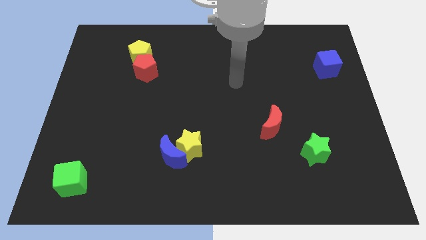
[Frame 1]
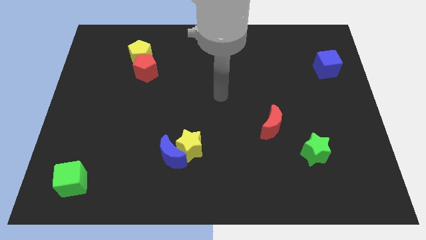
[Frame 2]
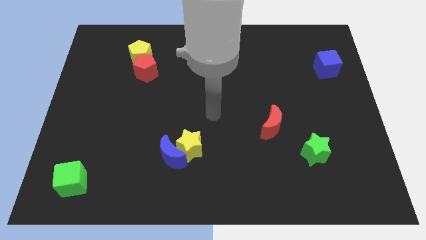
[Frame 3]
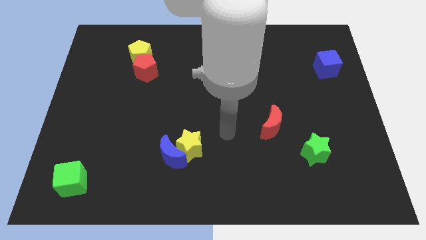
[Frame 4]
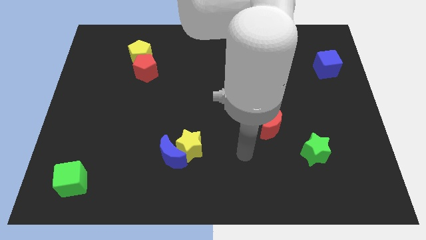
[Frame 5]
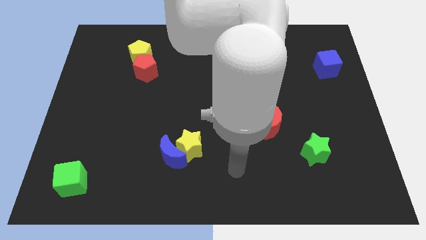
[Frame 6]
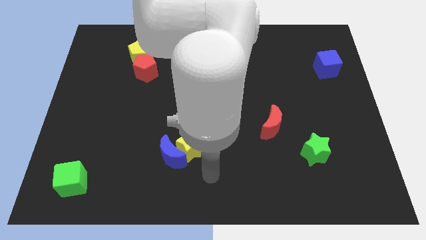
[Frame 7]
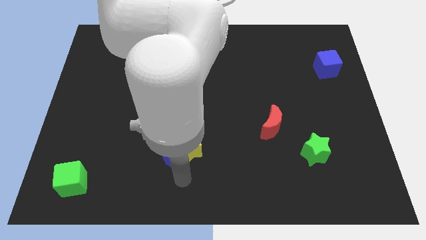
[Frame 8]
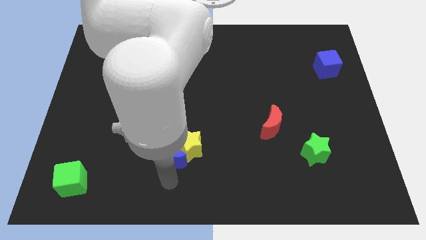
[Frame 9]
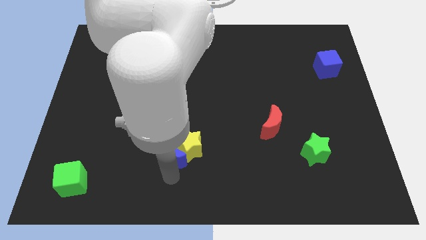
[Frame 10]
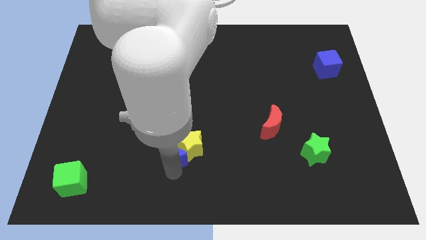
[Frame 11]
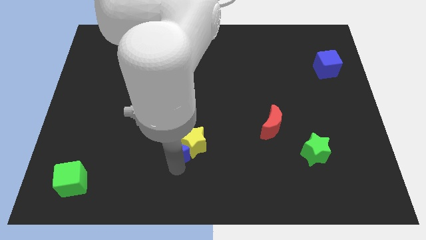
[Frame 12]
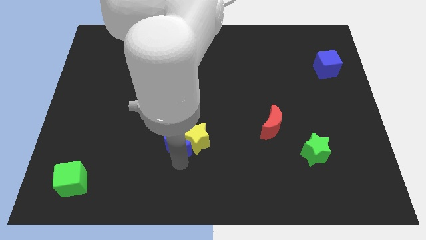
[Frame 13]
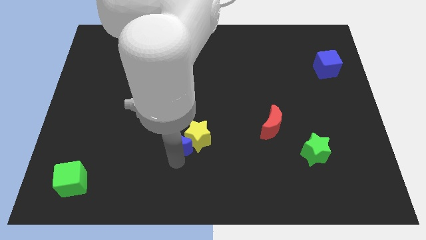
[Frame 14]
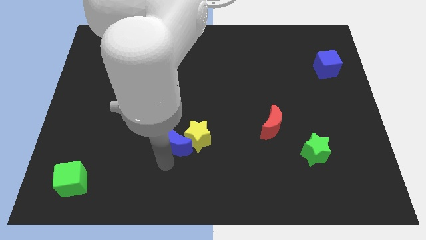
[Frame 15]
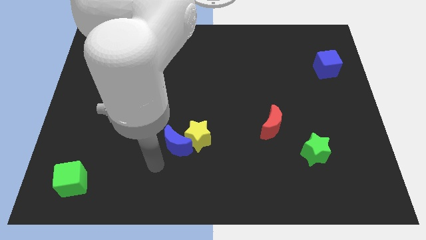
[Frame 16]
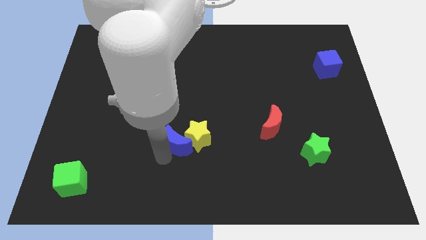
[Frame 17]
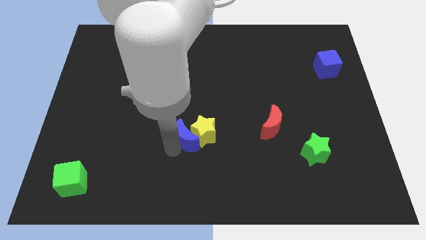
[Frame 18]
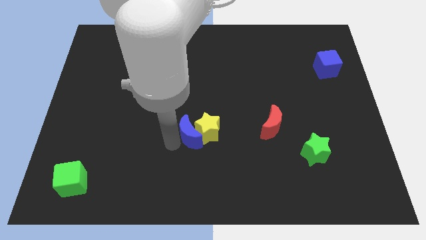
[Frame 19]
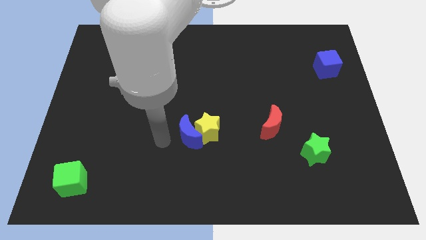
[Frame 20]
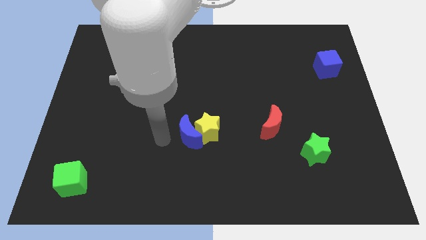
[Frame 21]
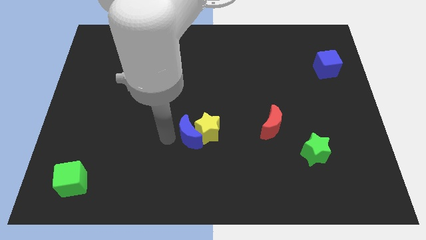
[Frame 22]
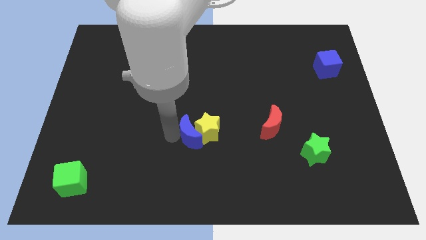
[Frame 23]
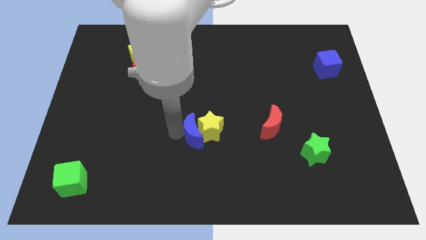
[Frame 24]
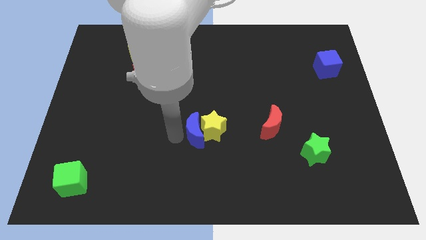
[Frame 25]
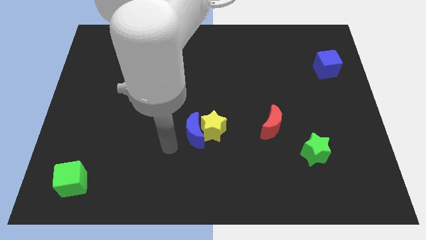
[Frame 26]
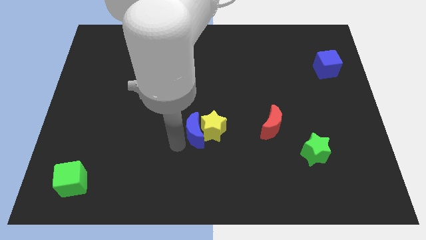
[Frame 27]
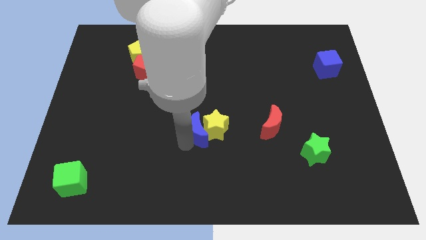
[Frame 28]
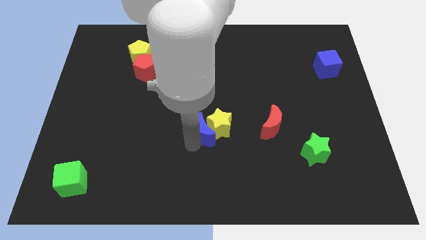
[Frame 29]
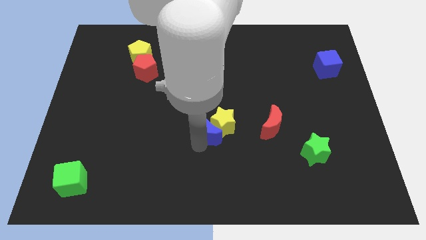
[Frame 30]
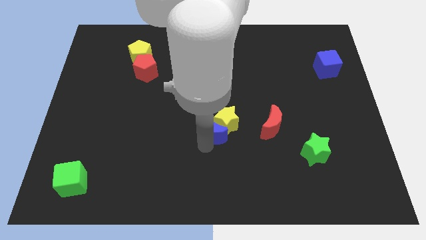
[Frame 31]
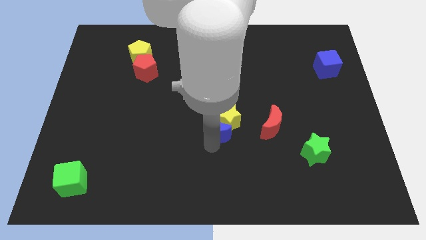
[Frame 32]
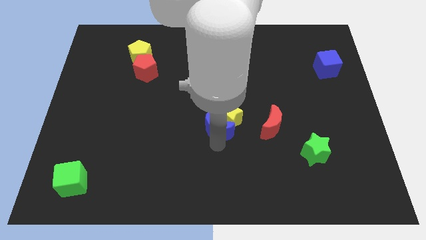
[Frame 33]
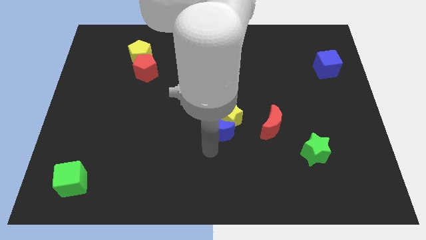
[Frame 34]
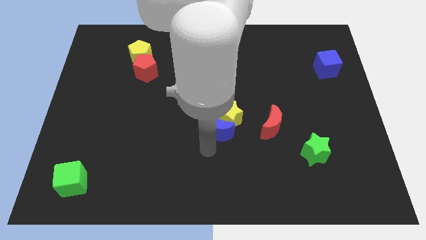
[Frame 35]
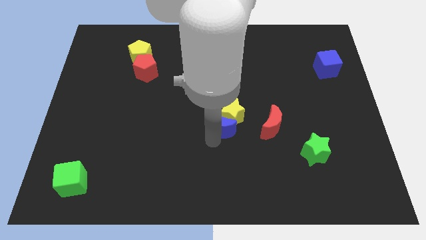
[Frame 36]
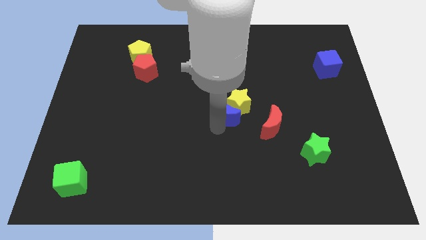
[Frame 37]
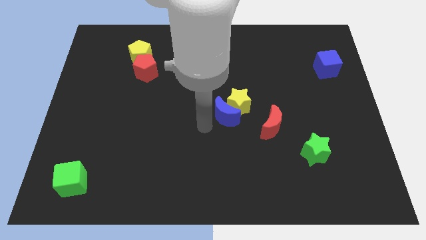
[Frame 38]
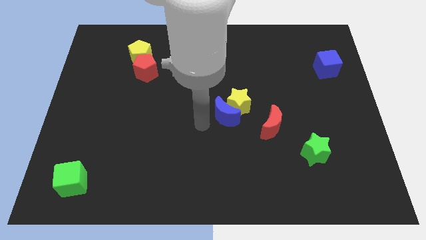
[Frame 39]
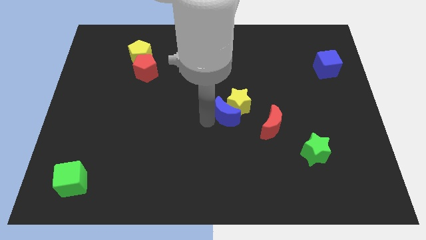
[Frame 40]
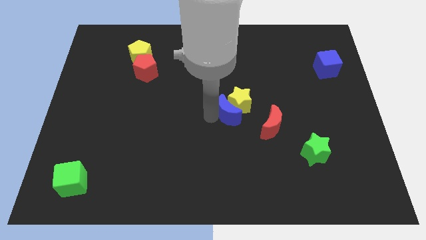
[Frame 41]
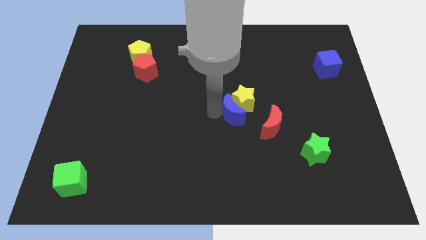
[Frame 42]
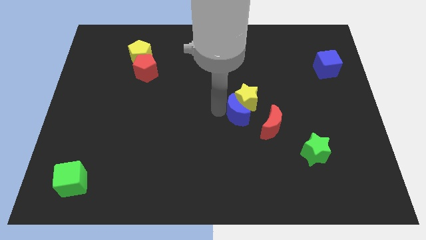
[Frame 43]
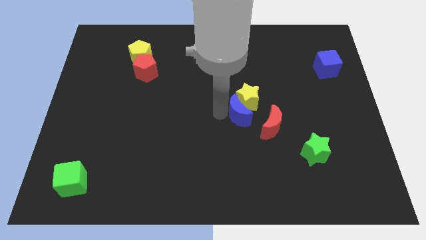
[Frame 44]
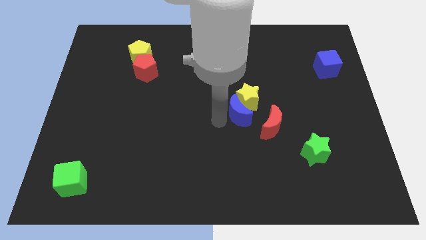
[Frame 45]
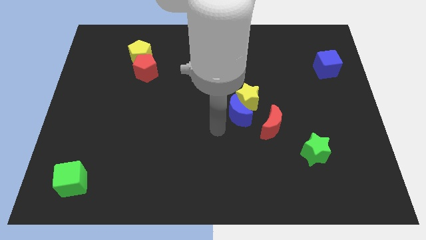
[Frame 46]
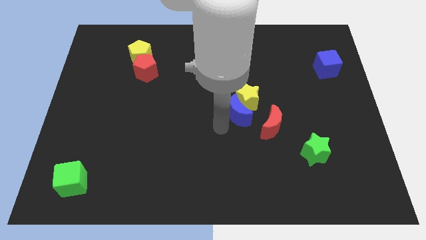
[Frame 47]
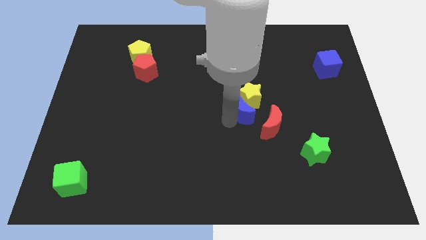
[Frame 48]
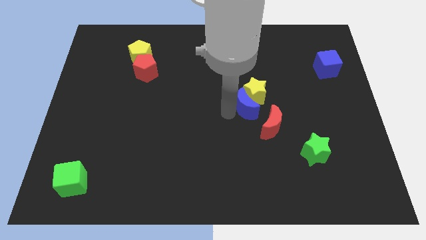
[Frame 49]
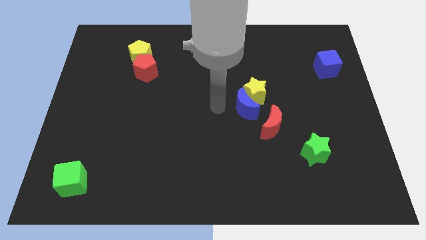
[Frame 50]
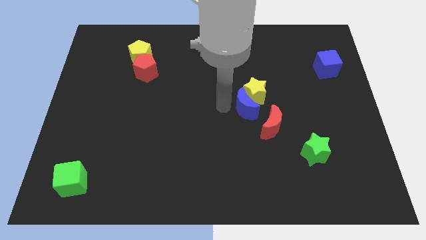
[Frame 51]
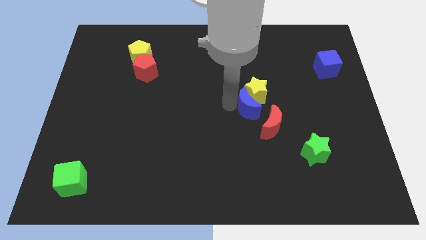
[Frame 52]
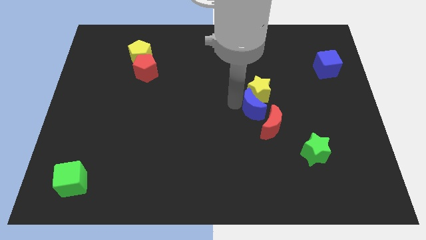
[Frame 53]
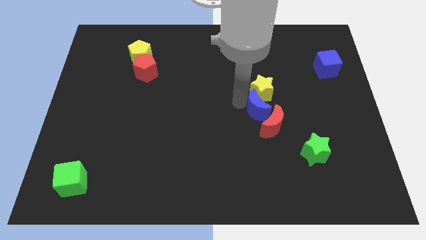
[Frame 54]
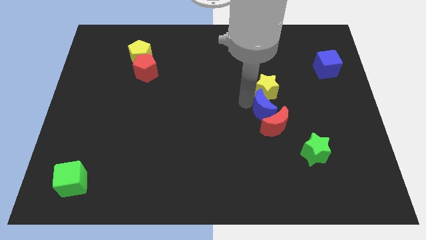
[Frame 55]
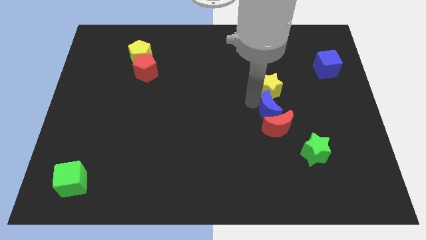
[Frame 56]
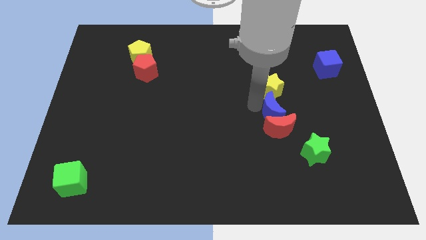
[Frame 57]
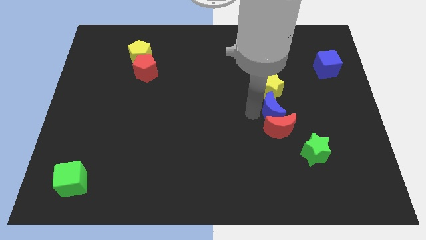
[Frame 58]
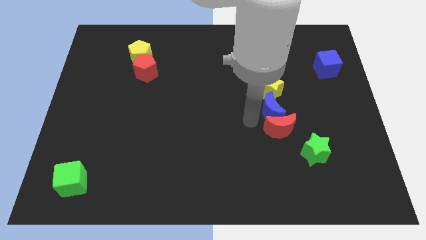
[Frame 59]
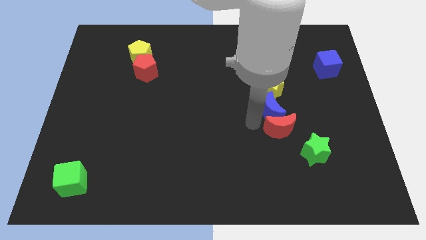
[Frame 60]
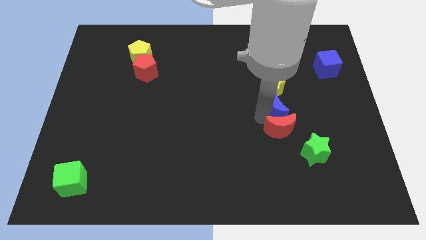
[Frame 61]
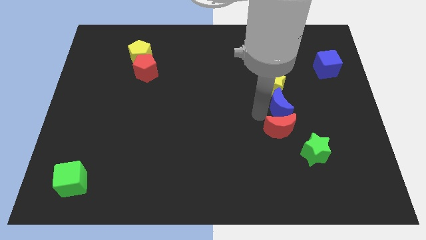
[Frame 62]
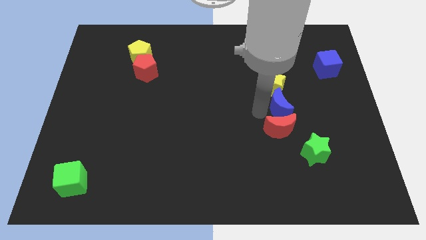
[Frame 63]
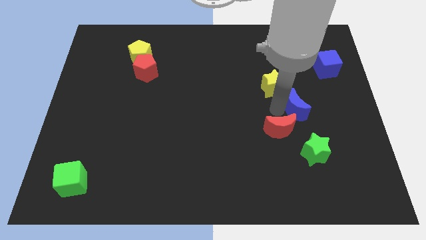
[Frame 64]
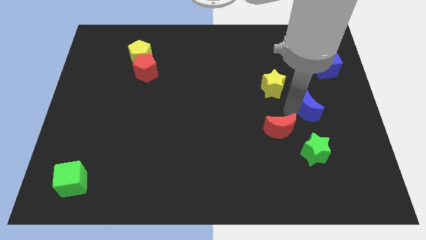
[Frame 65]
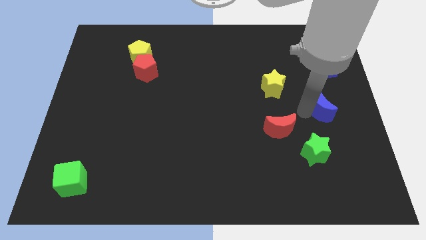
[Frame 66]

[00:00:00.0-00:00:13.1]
put the blue moon to the bottom side of the blue cube
